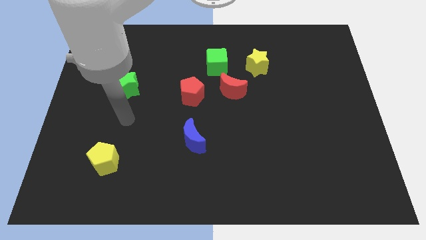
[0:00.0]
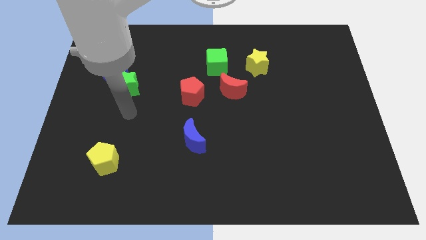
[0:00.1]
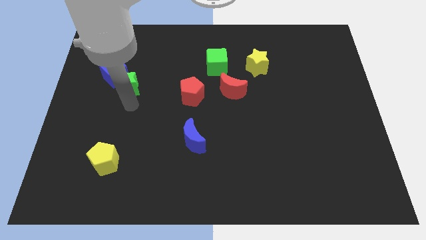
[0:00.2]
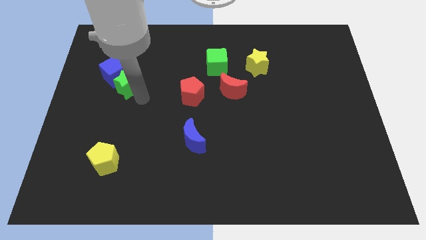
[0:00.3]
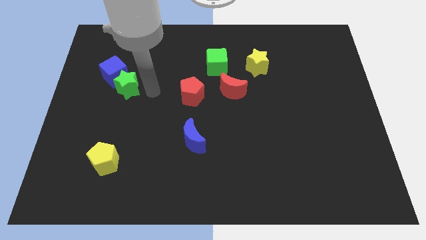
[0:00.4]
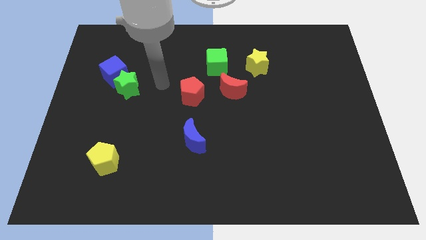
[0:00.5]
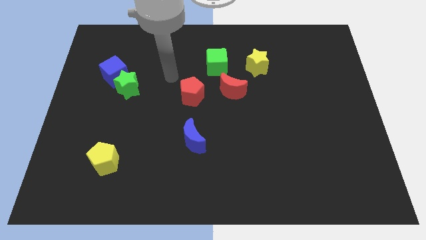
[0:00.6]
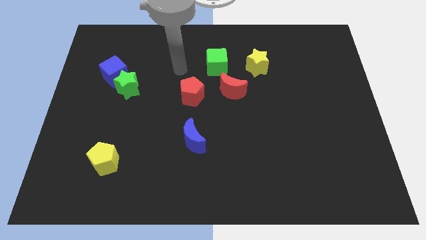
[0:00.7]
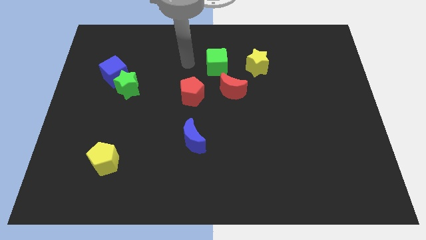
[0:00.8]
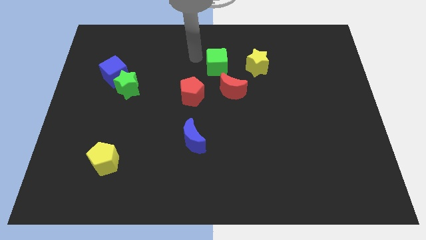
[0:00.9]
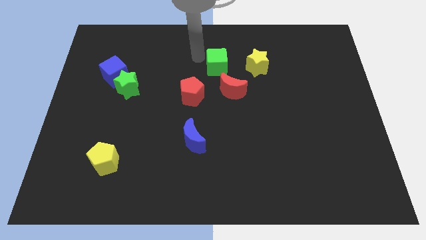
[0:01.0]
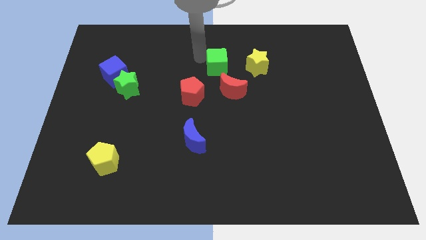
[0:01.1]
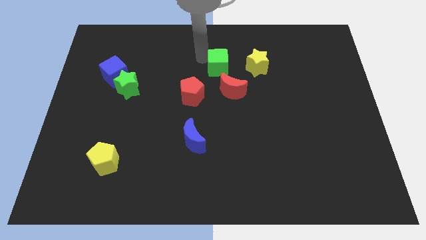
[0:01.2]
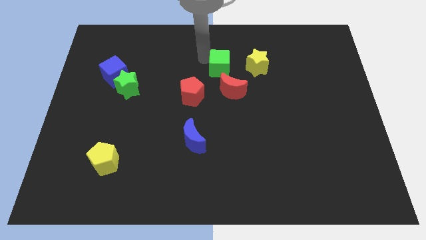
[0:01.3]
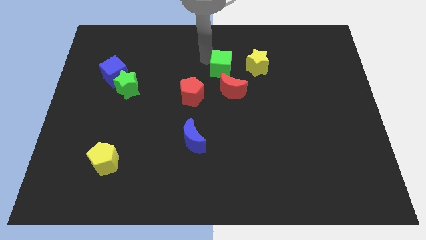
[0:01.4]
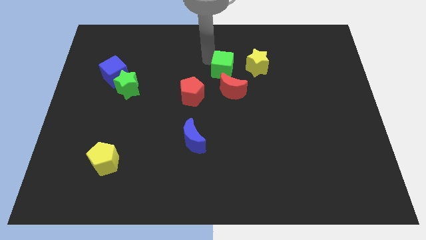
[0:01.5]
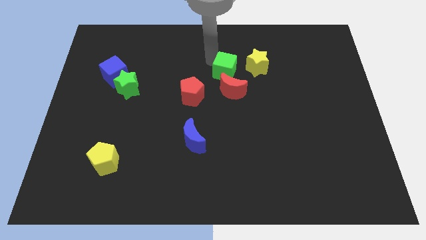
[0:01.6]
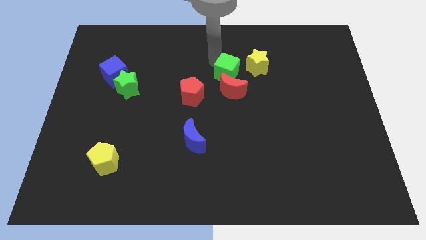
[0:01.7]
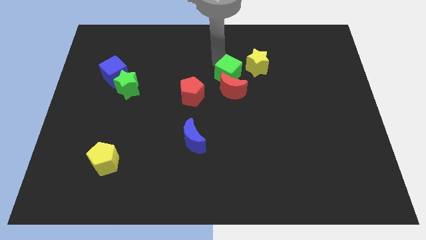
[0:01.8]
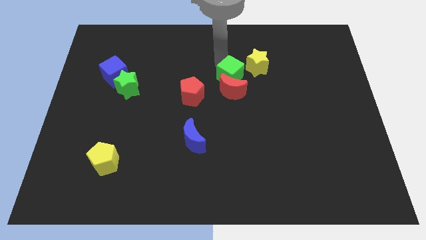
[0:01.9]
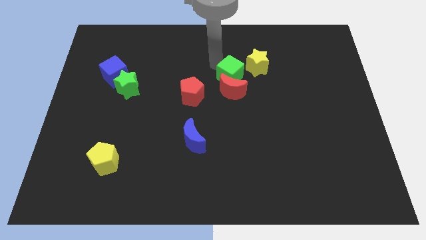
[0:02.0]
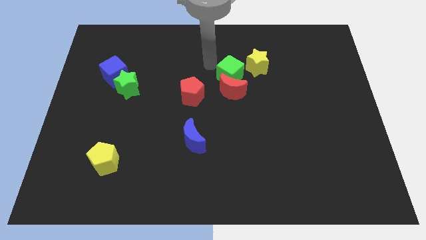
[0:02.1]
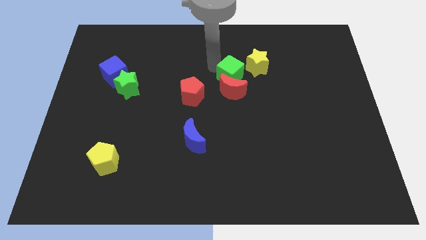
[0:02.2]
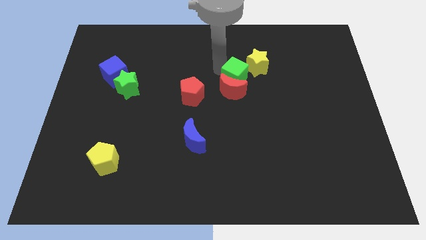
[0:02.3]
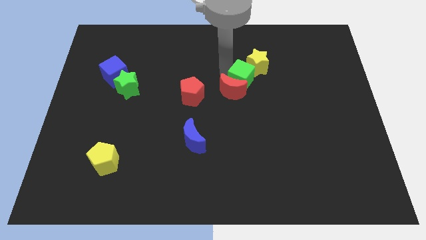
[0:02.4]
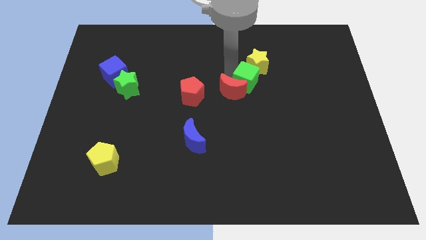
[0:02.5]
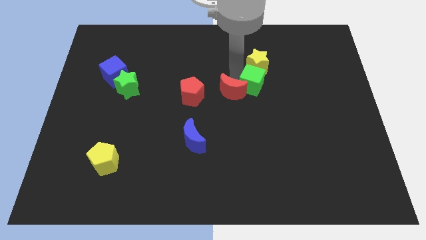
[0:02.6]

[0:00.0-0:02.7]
move the green cube to the right somewhat

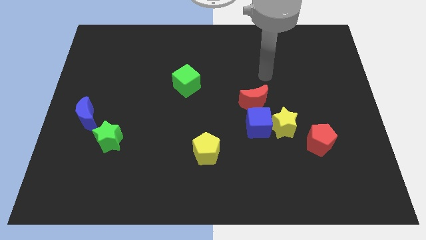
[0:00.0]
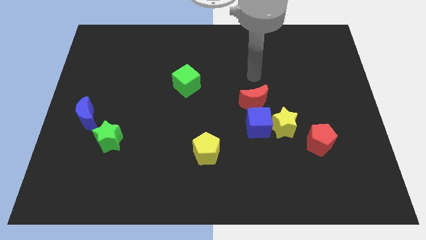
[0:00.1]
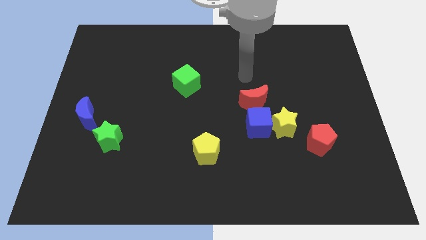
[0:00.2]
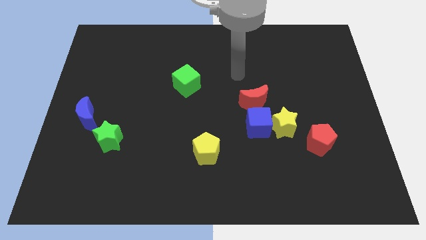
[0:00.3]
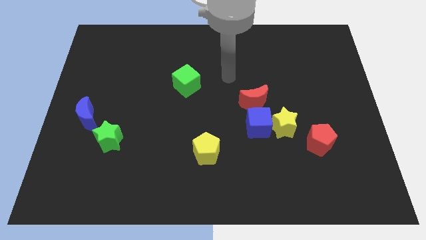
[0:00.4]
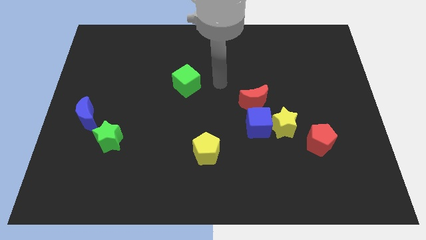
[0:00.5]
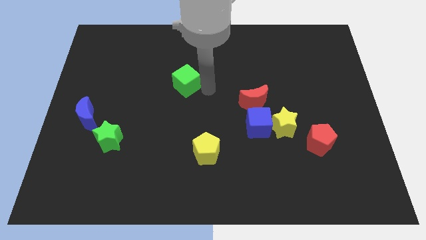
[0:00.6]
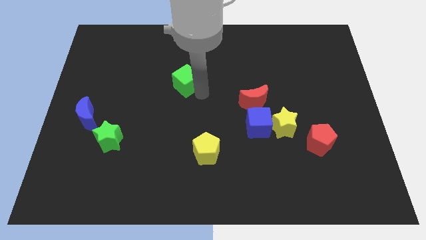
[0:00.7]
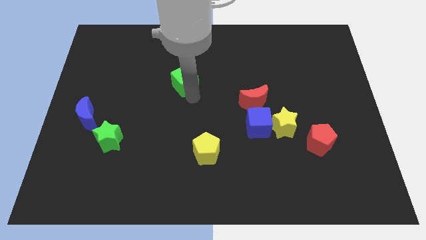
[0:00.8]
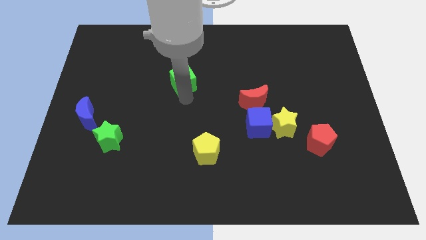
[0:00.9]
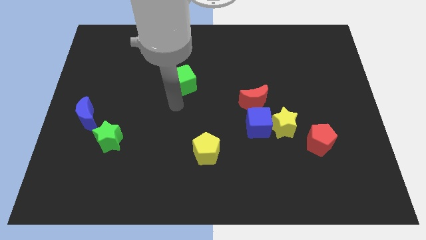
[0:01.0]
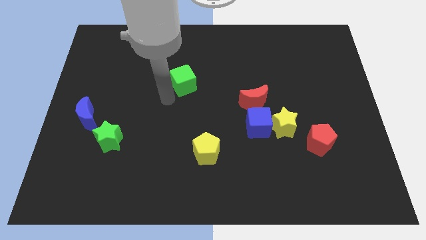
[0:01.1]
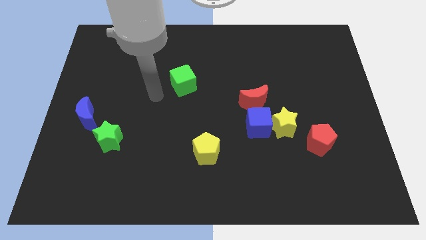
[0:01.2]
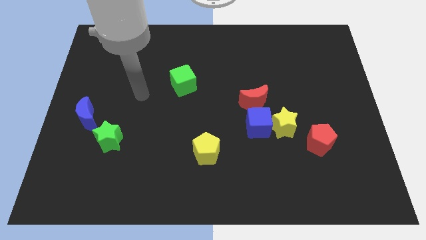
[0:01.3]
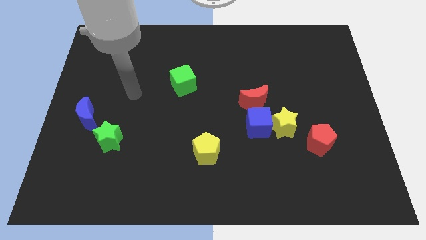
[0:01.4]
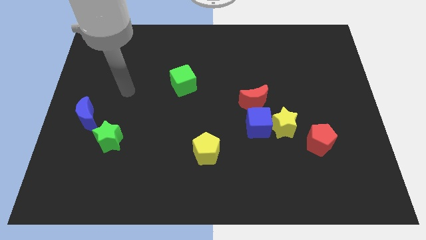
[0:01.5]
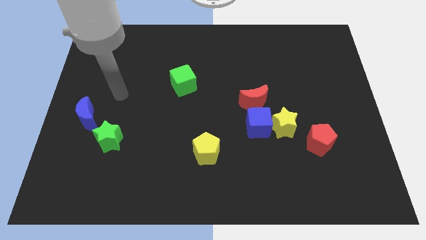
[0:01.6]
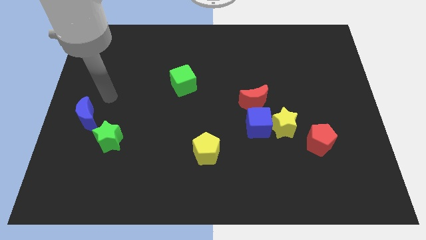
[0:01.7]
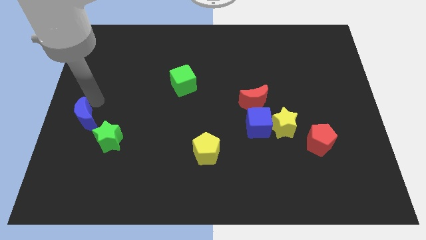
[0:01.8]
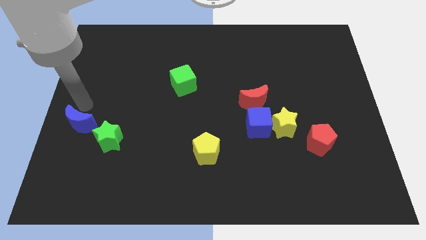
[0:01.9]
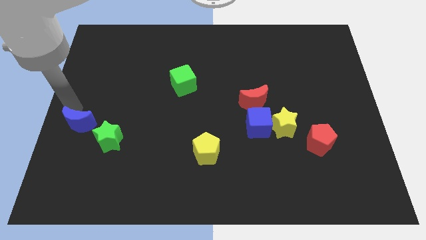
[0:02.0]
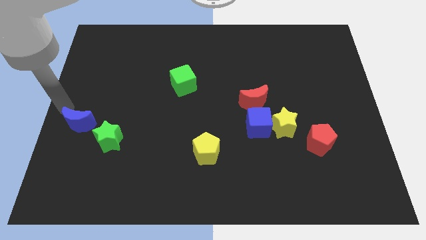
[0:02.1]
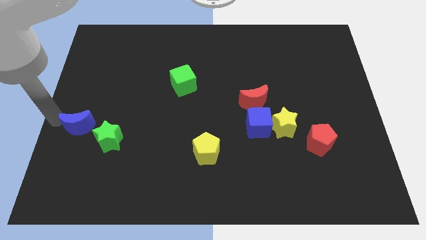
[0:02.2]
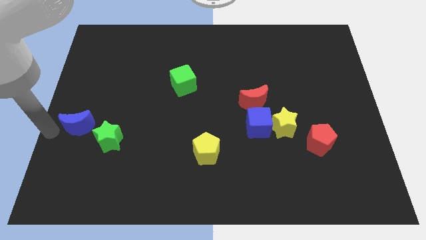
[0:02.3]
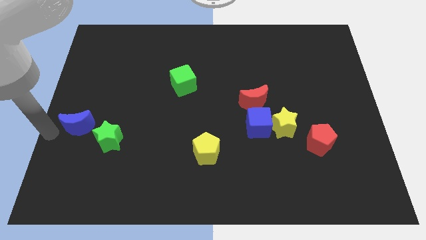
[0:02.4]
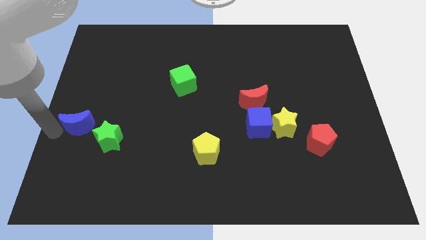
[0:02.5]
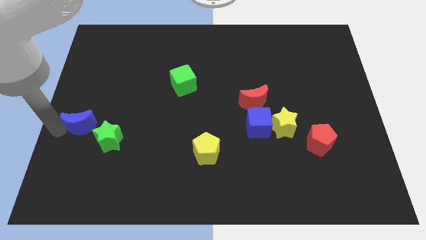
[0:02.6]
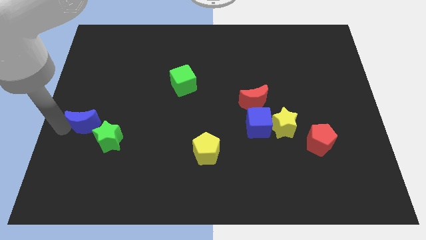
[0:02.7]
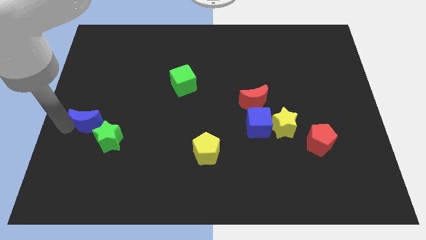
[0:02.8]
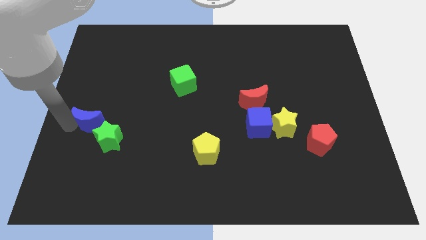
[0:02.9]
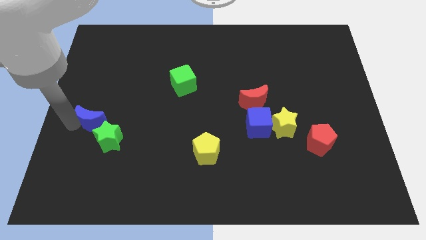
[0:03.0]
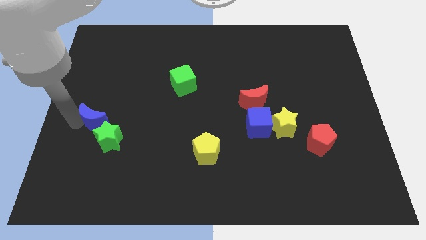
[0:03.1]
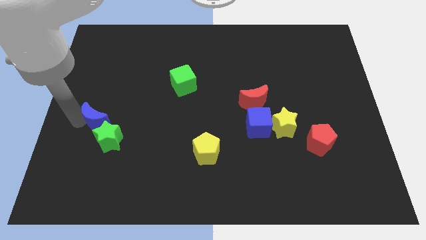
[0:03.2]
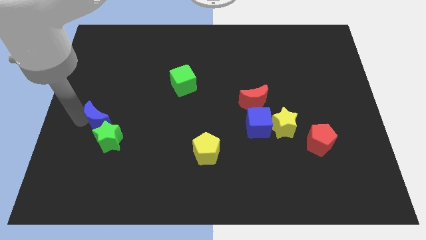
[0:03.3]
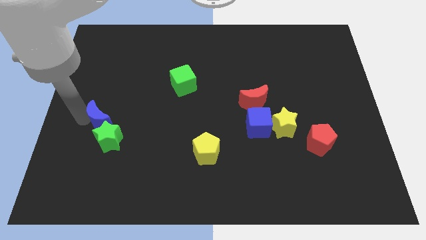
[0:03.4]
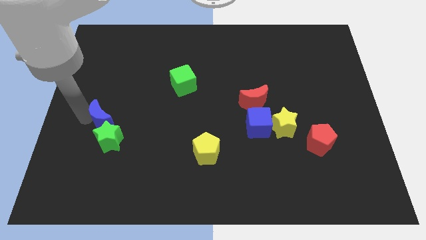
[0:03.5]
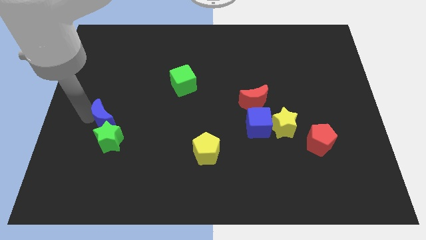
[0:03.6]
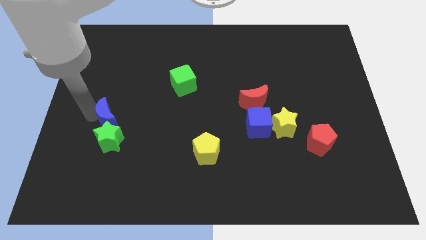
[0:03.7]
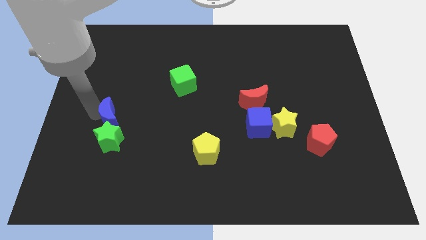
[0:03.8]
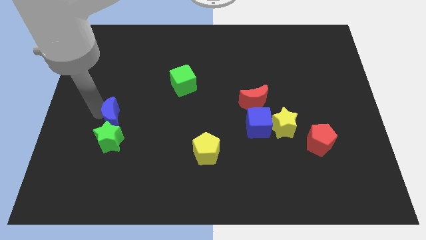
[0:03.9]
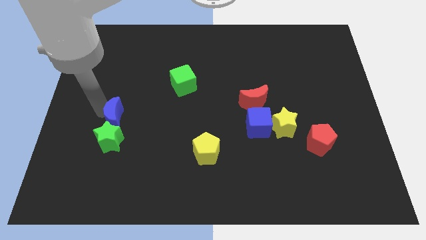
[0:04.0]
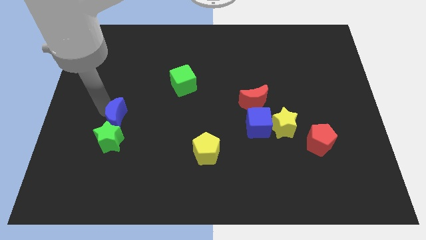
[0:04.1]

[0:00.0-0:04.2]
slightly push the blue moon to the right

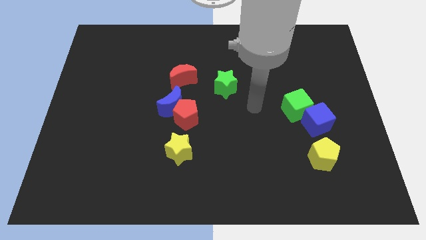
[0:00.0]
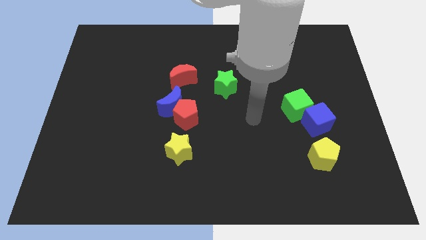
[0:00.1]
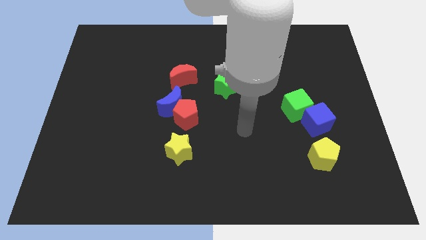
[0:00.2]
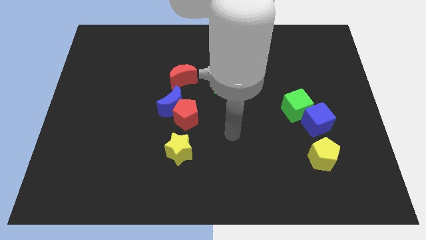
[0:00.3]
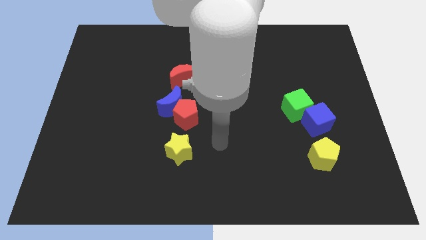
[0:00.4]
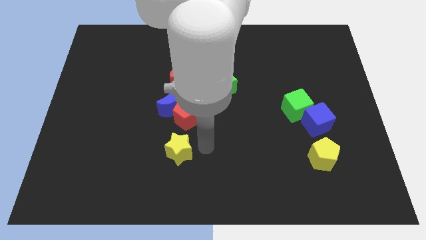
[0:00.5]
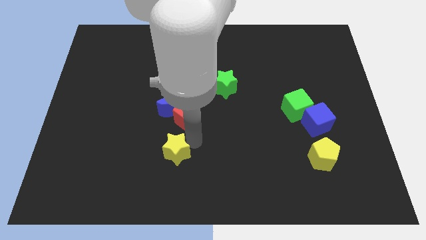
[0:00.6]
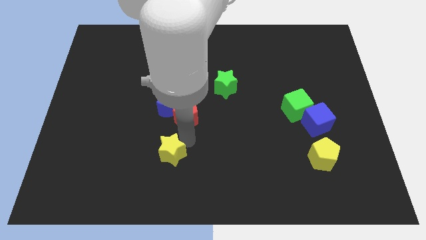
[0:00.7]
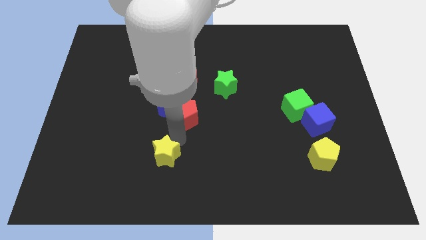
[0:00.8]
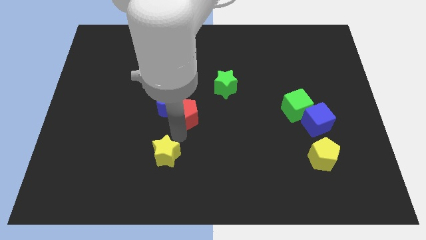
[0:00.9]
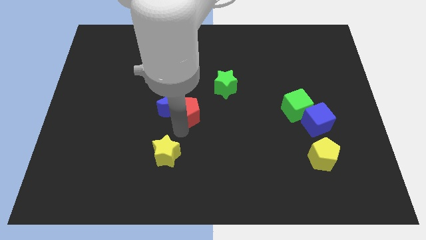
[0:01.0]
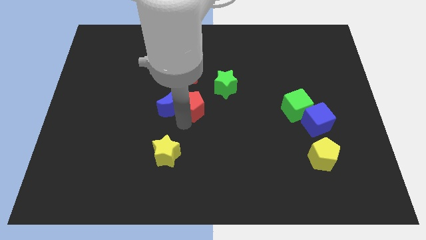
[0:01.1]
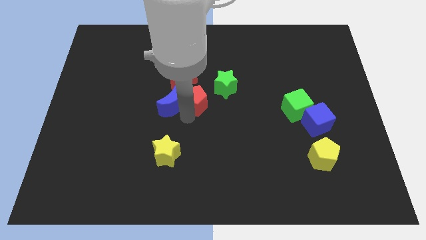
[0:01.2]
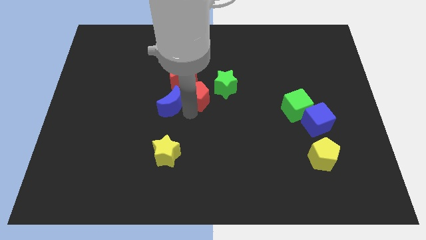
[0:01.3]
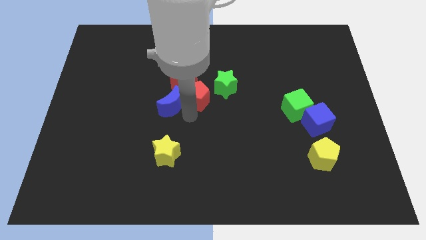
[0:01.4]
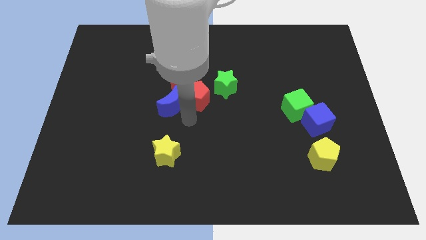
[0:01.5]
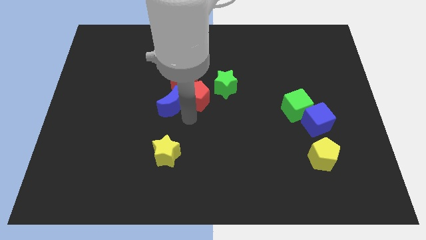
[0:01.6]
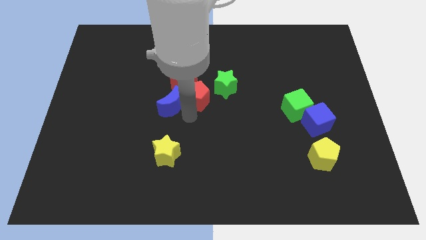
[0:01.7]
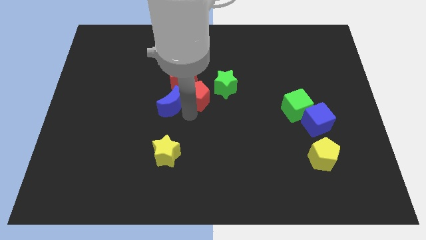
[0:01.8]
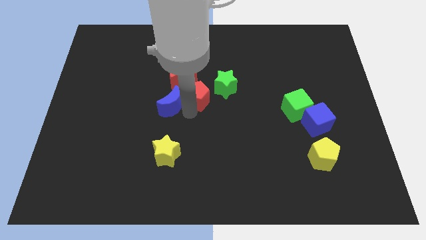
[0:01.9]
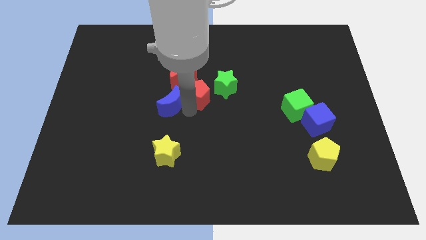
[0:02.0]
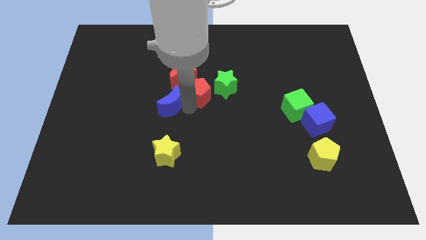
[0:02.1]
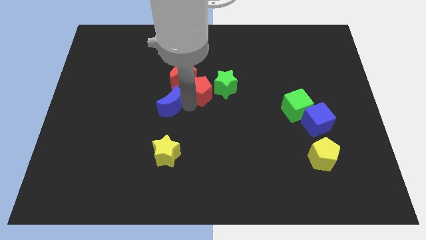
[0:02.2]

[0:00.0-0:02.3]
slightly slide the red pentagon upwards and to the right
